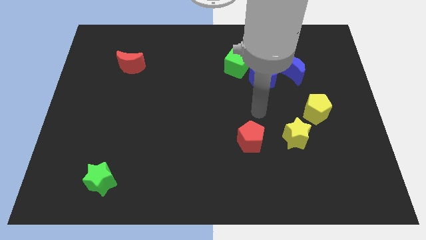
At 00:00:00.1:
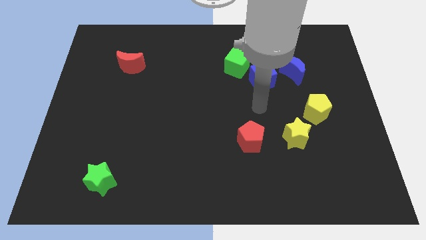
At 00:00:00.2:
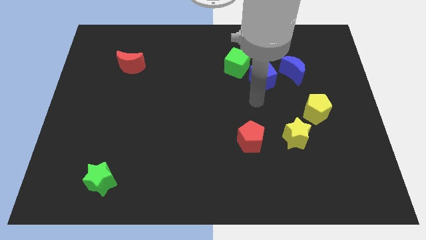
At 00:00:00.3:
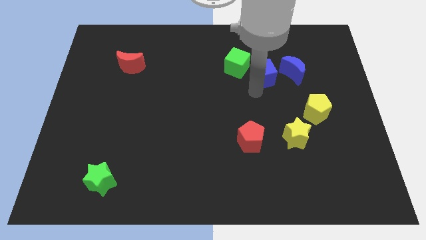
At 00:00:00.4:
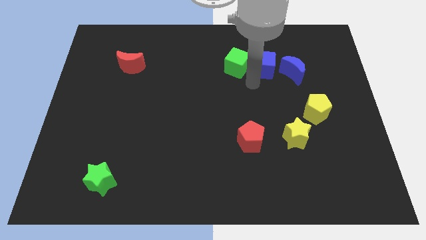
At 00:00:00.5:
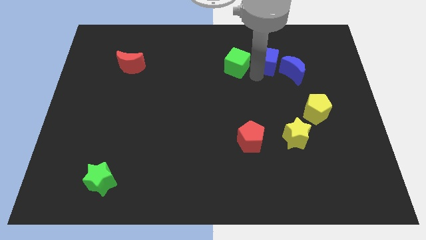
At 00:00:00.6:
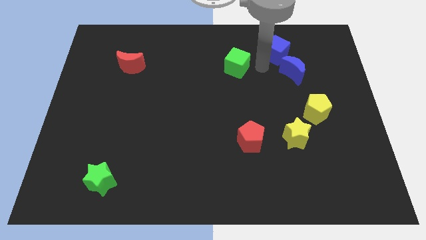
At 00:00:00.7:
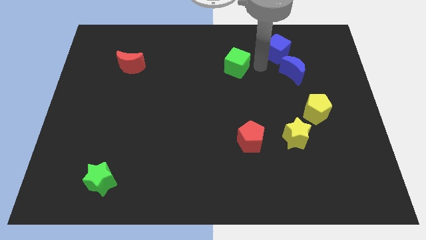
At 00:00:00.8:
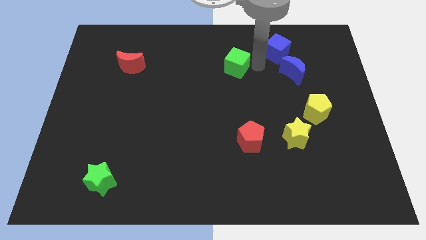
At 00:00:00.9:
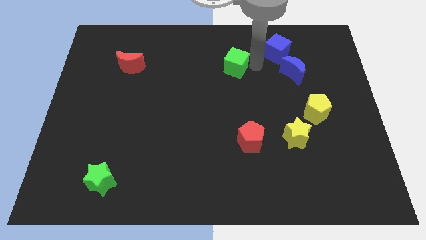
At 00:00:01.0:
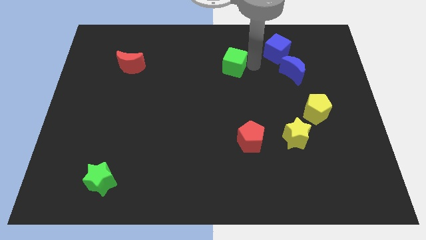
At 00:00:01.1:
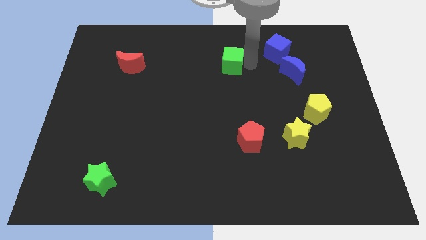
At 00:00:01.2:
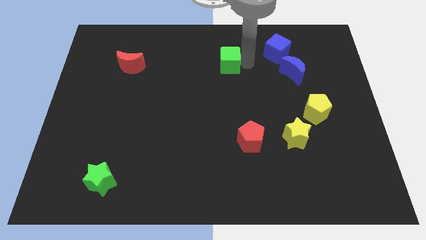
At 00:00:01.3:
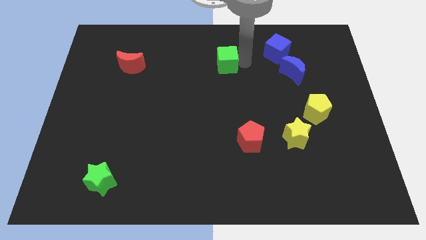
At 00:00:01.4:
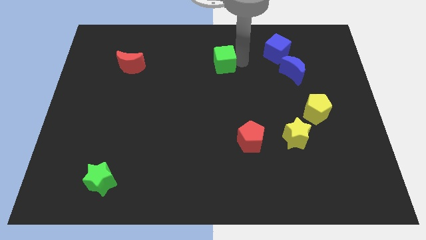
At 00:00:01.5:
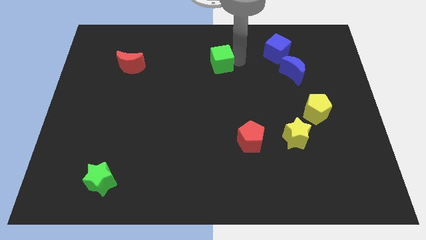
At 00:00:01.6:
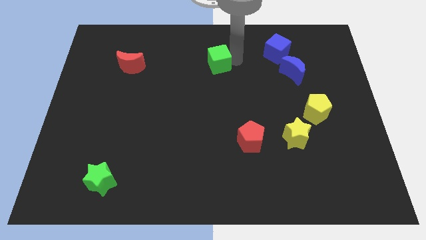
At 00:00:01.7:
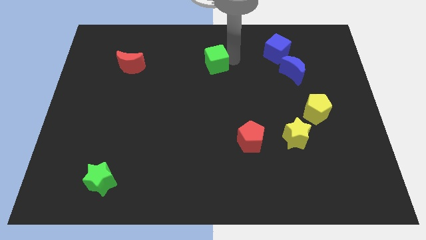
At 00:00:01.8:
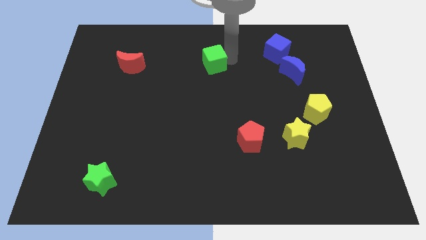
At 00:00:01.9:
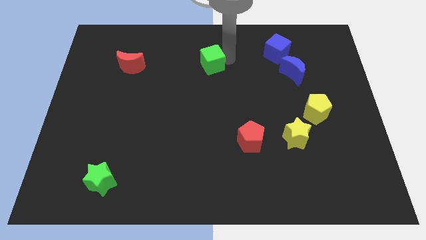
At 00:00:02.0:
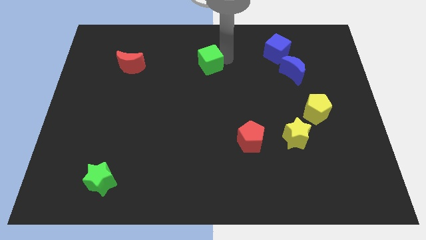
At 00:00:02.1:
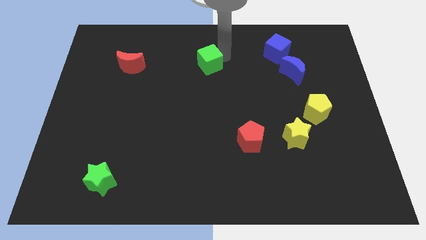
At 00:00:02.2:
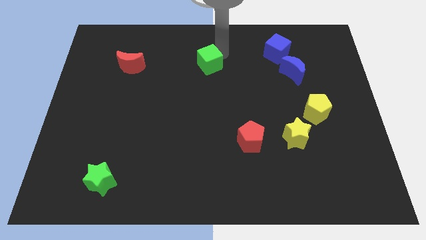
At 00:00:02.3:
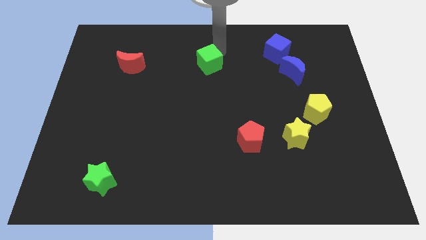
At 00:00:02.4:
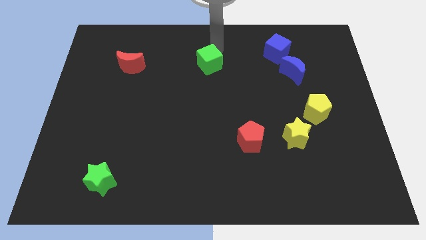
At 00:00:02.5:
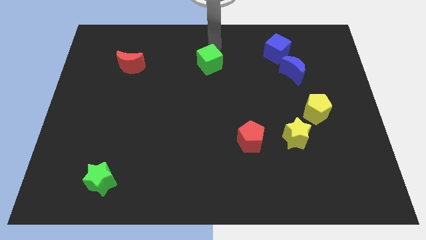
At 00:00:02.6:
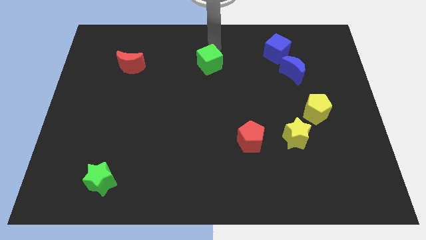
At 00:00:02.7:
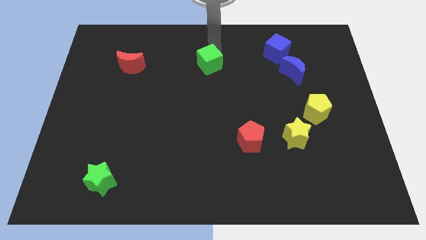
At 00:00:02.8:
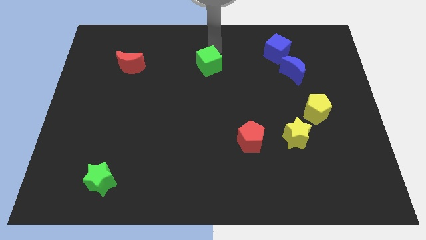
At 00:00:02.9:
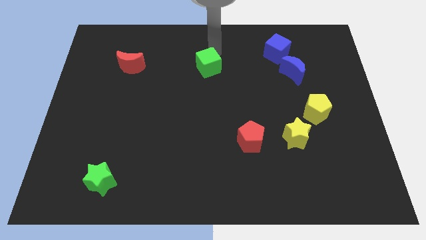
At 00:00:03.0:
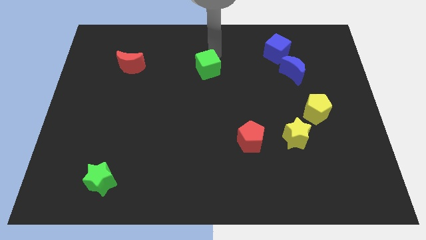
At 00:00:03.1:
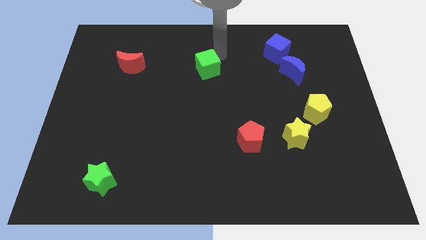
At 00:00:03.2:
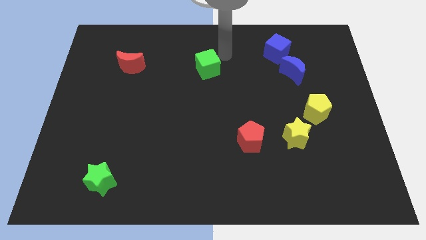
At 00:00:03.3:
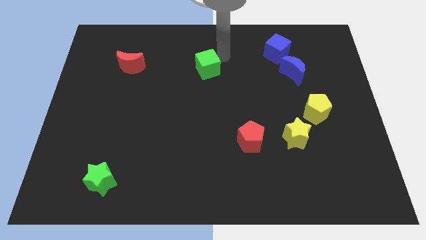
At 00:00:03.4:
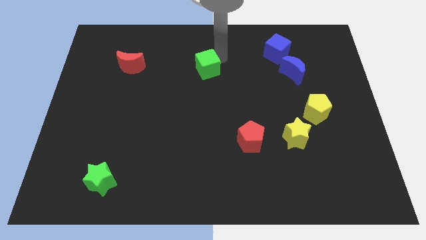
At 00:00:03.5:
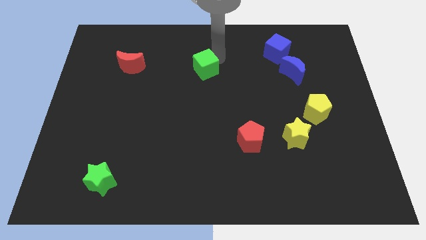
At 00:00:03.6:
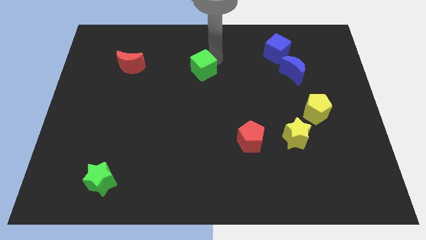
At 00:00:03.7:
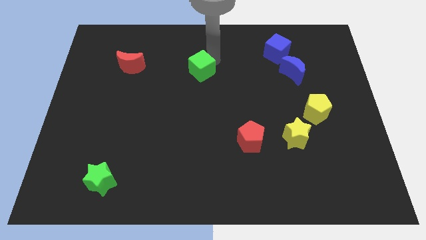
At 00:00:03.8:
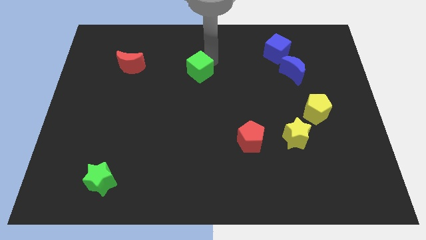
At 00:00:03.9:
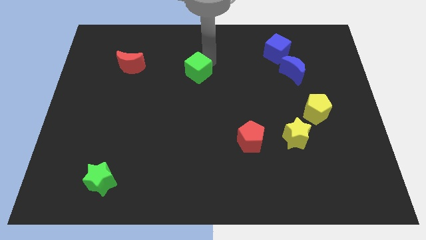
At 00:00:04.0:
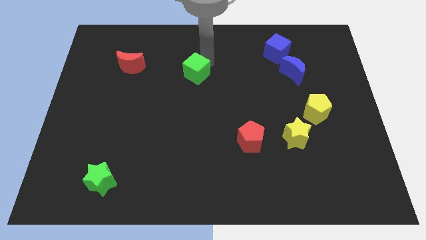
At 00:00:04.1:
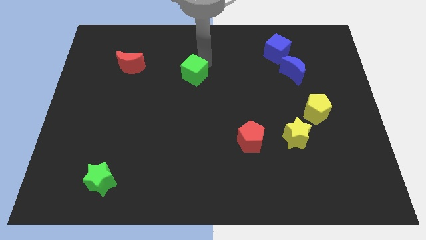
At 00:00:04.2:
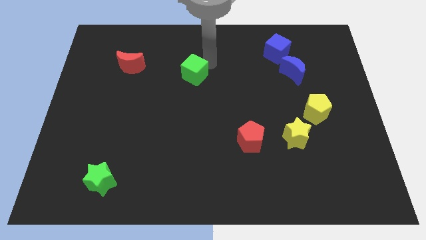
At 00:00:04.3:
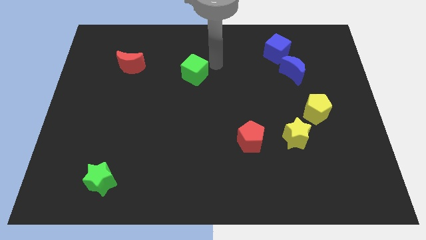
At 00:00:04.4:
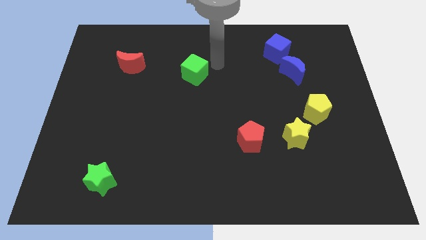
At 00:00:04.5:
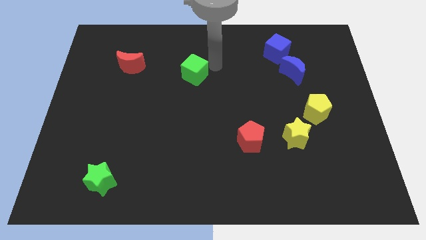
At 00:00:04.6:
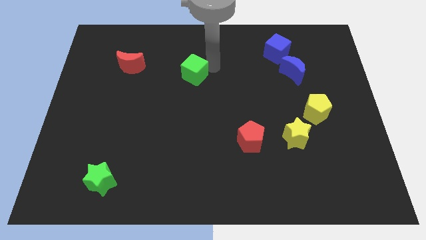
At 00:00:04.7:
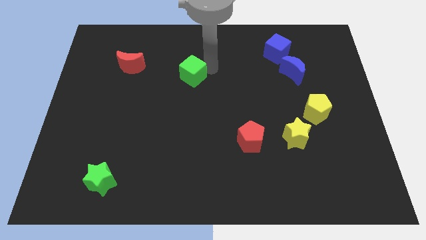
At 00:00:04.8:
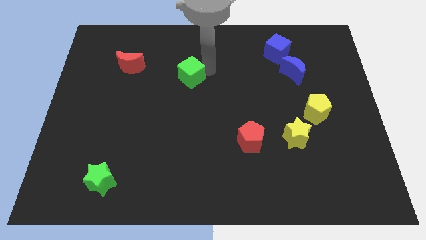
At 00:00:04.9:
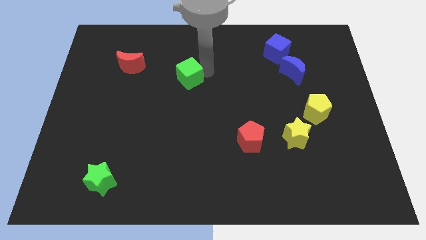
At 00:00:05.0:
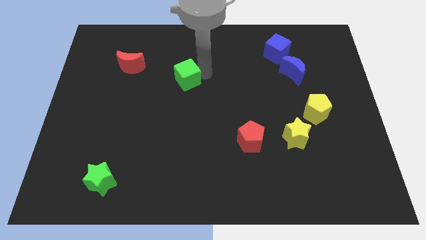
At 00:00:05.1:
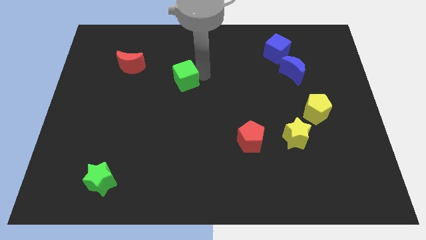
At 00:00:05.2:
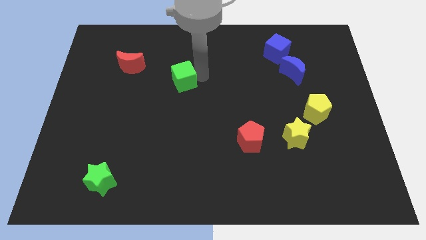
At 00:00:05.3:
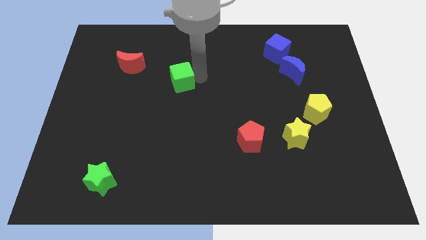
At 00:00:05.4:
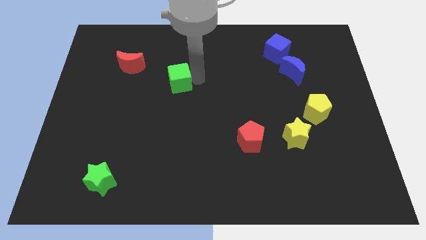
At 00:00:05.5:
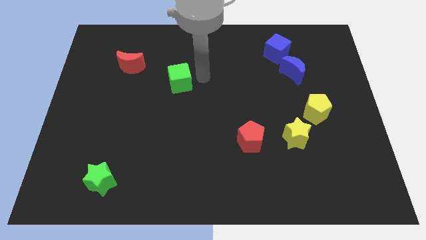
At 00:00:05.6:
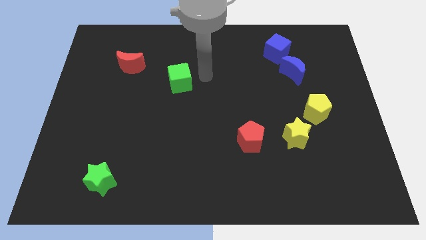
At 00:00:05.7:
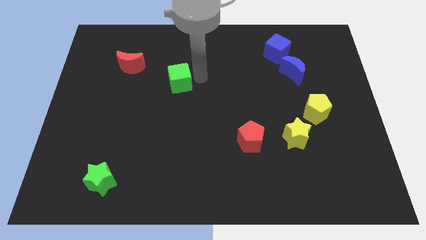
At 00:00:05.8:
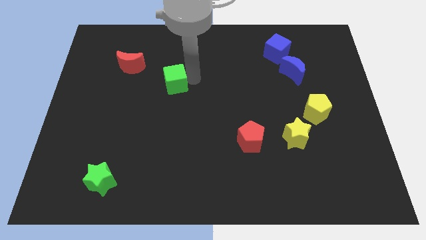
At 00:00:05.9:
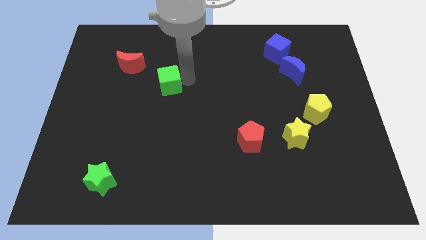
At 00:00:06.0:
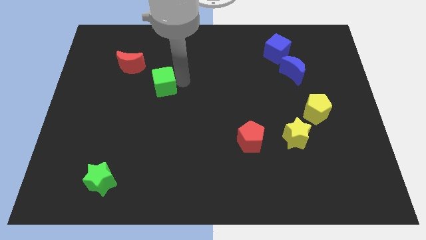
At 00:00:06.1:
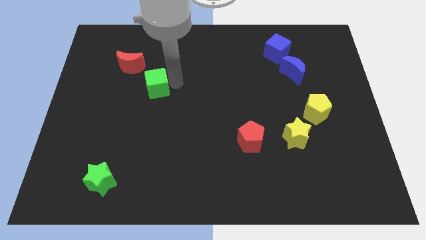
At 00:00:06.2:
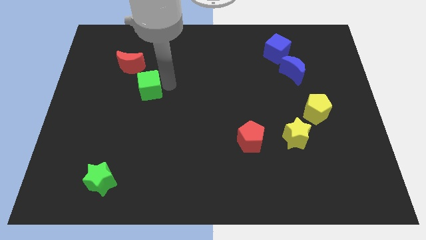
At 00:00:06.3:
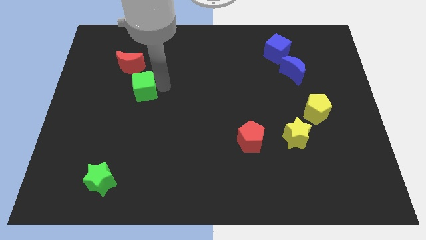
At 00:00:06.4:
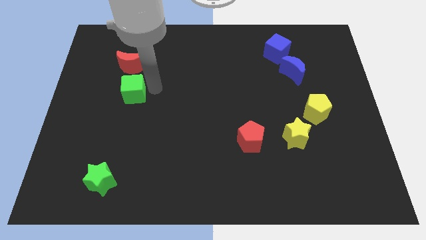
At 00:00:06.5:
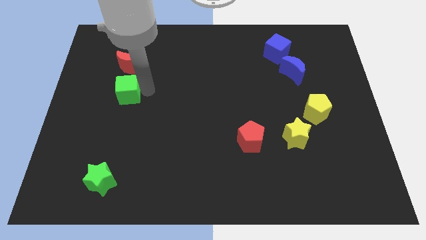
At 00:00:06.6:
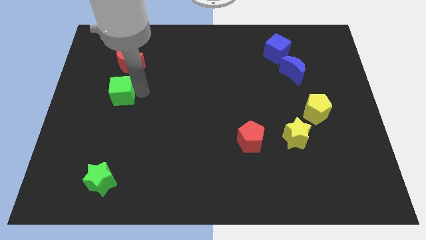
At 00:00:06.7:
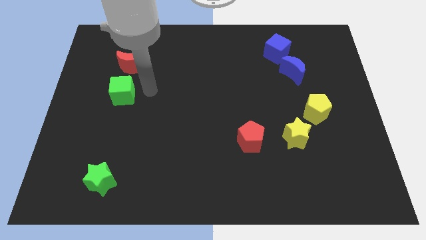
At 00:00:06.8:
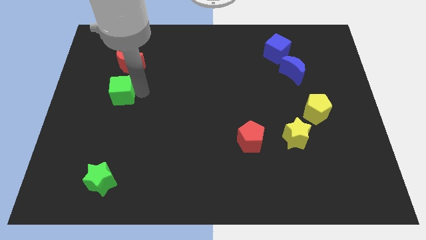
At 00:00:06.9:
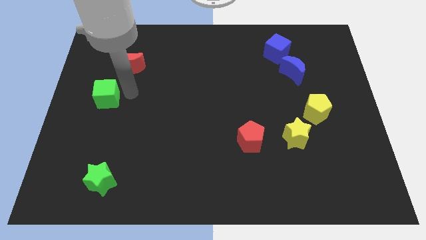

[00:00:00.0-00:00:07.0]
push the green cube to the left side
